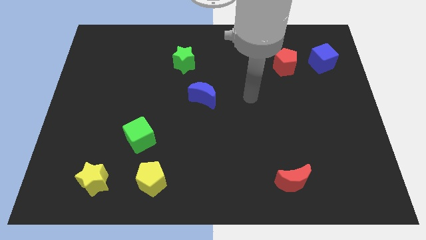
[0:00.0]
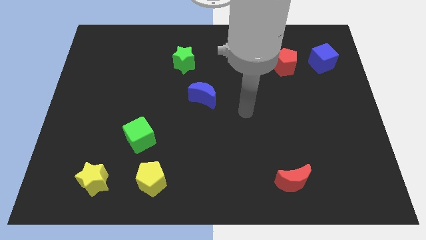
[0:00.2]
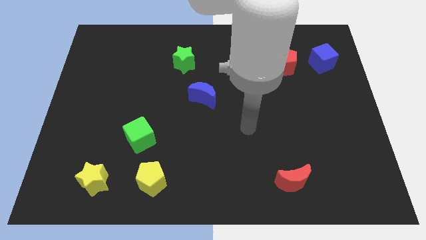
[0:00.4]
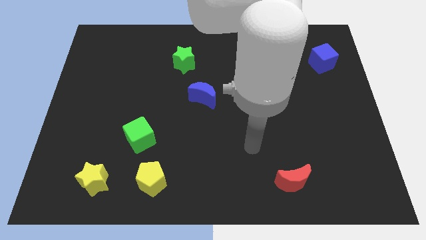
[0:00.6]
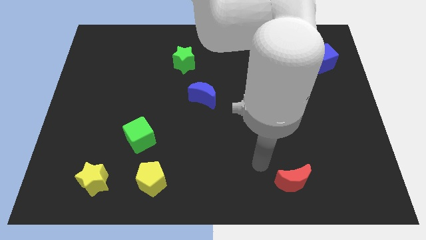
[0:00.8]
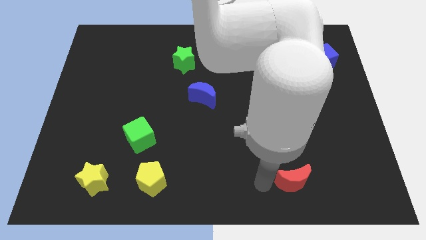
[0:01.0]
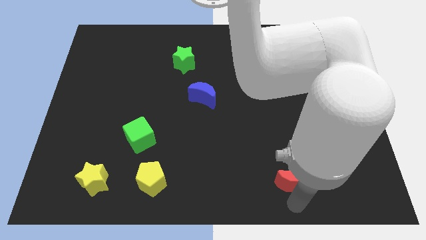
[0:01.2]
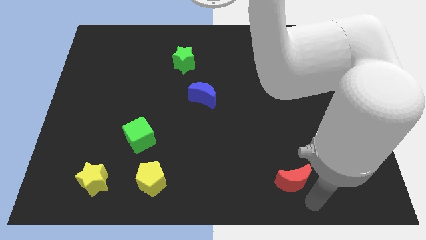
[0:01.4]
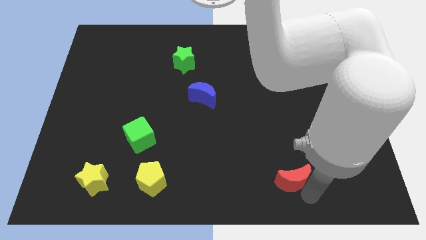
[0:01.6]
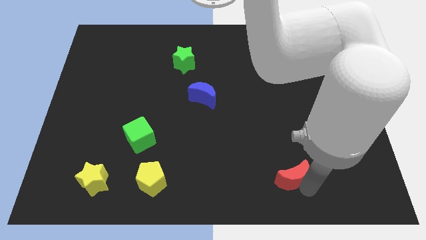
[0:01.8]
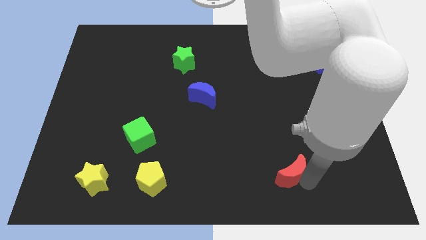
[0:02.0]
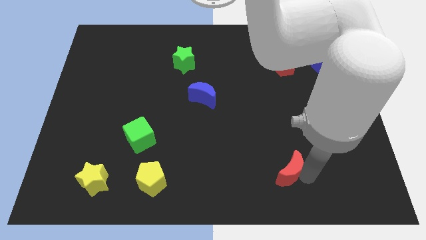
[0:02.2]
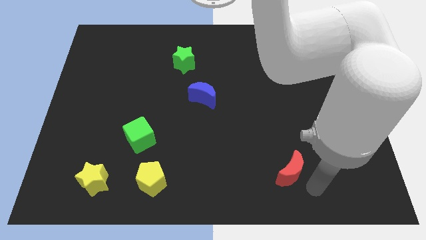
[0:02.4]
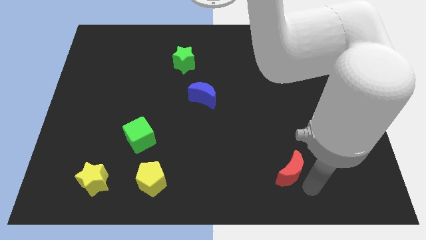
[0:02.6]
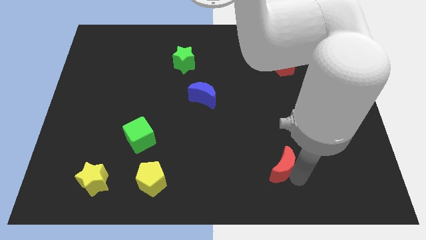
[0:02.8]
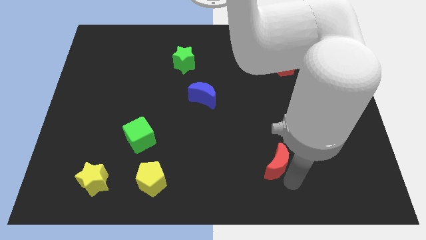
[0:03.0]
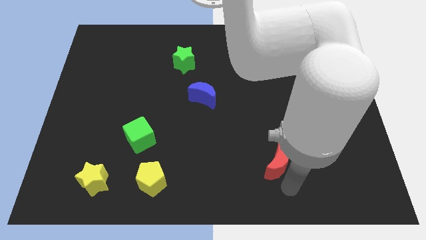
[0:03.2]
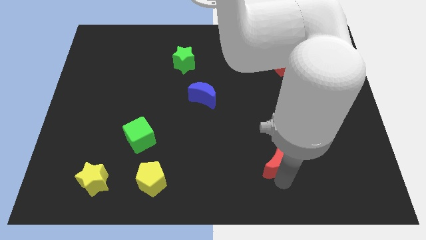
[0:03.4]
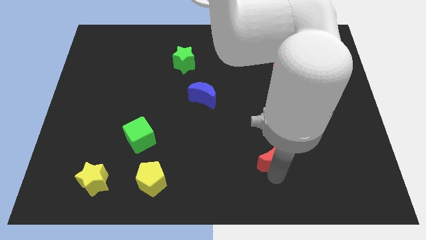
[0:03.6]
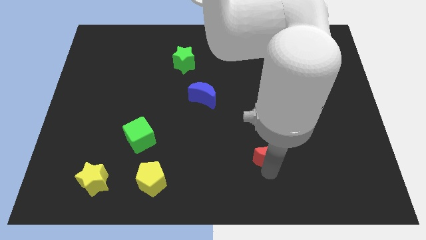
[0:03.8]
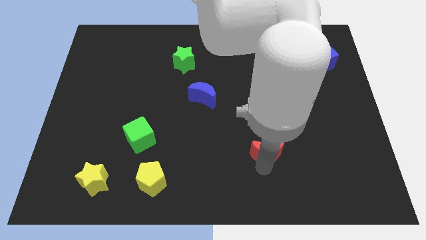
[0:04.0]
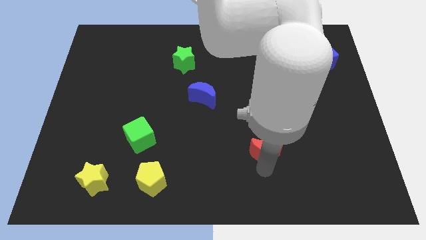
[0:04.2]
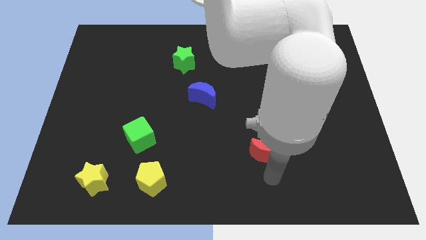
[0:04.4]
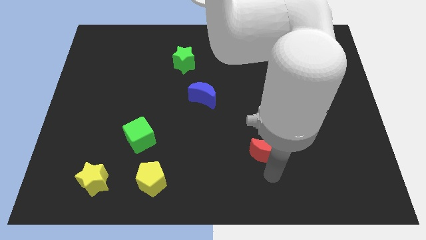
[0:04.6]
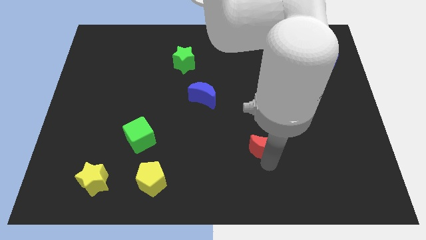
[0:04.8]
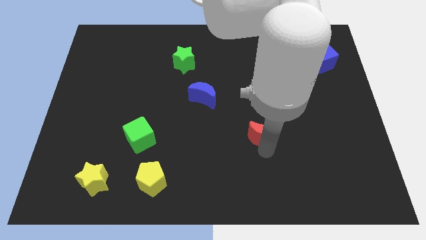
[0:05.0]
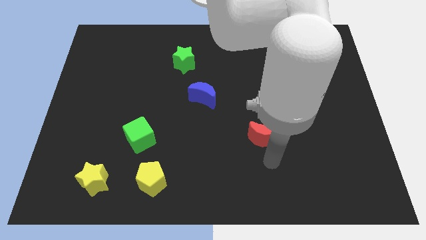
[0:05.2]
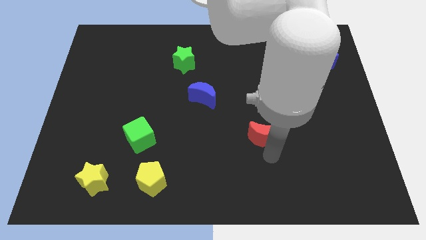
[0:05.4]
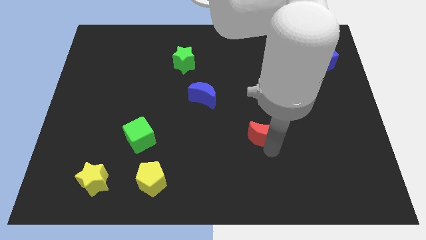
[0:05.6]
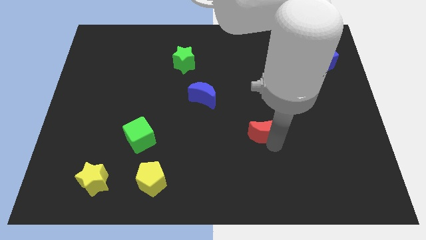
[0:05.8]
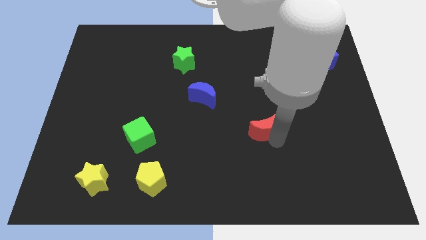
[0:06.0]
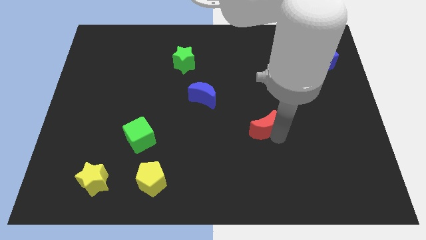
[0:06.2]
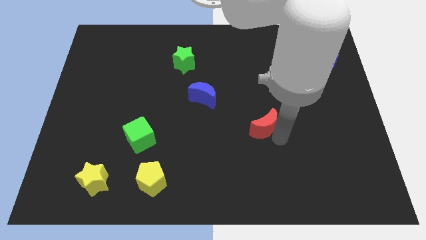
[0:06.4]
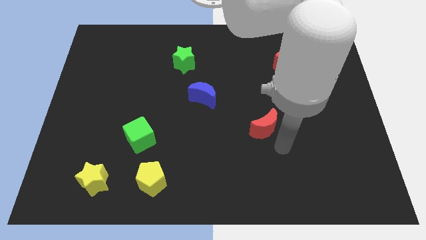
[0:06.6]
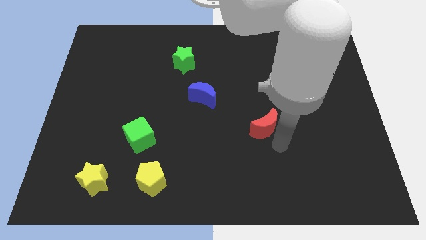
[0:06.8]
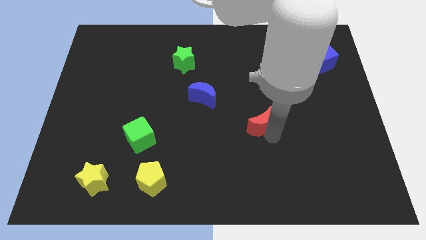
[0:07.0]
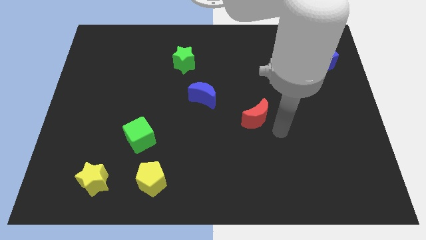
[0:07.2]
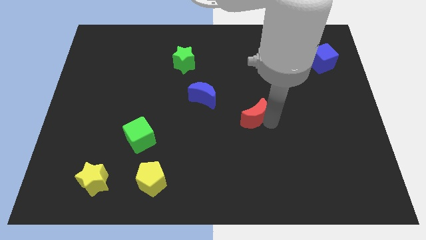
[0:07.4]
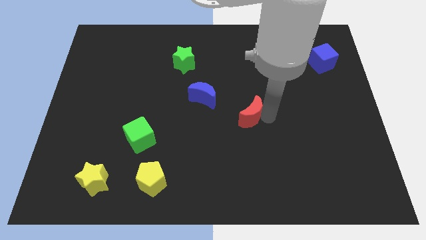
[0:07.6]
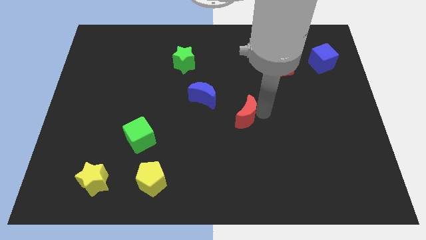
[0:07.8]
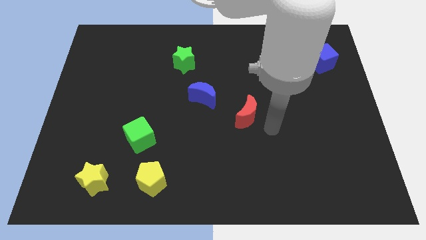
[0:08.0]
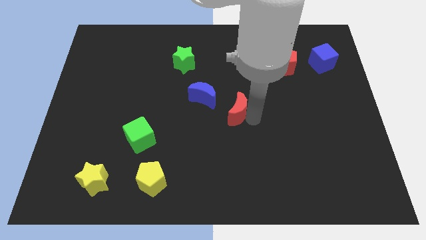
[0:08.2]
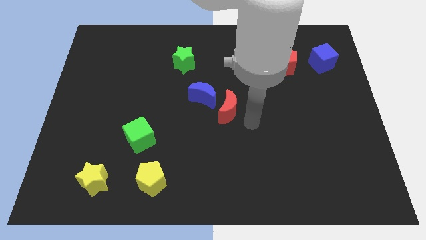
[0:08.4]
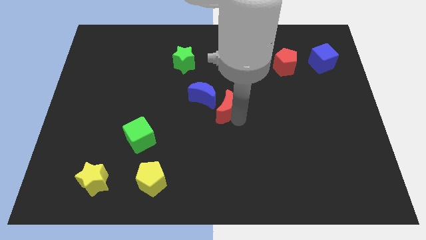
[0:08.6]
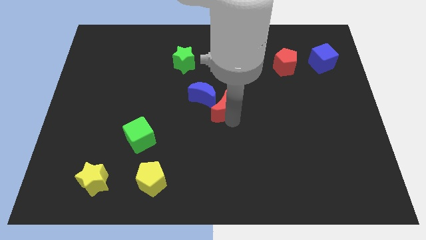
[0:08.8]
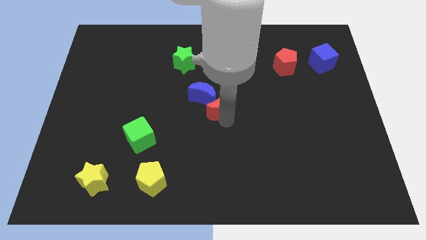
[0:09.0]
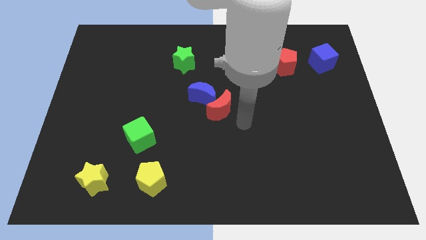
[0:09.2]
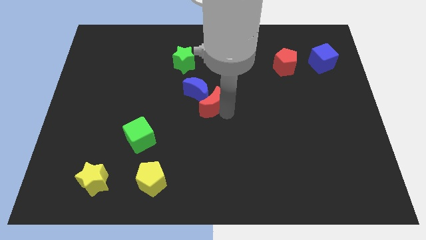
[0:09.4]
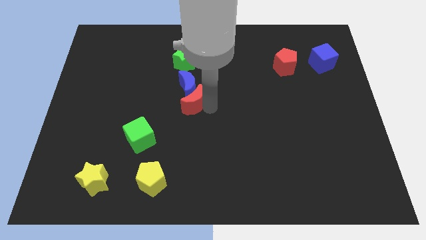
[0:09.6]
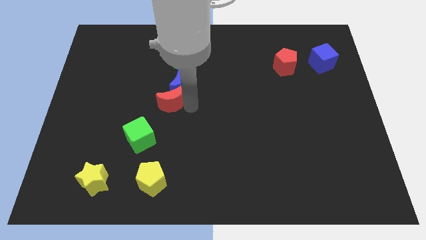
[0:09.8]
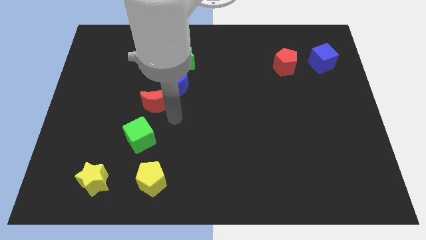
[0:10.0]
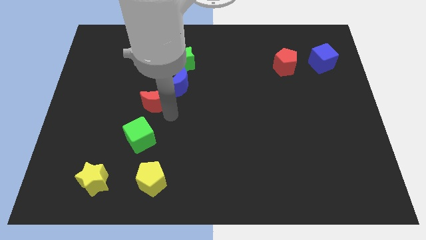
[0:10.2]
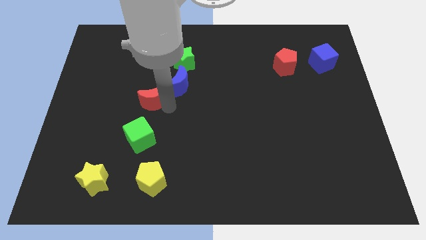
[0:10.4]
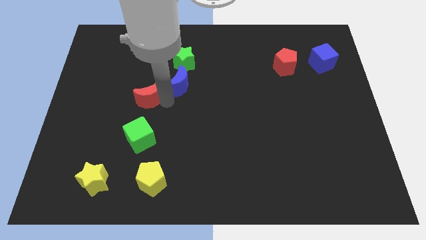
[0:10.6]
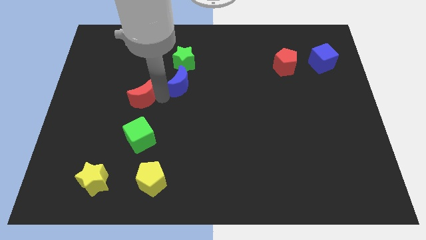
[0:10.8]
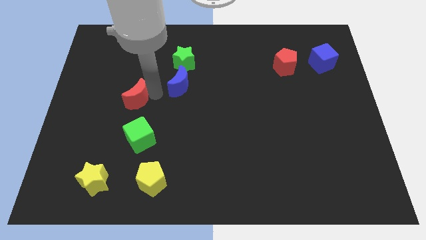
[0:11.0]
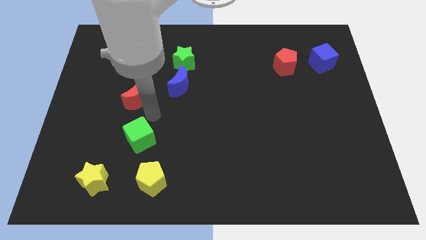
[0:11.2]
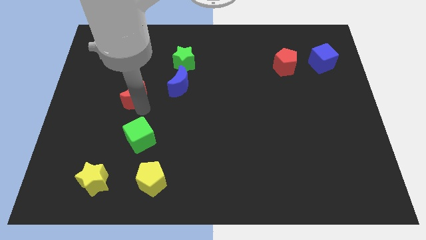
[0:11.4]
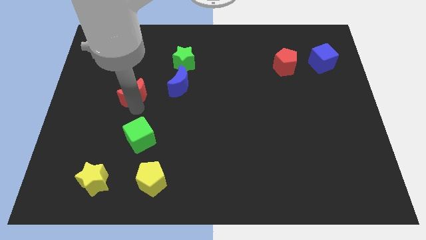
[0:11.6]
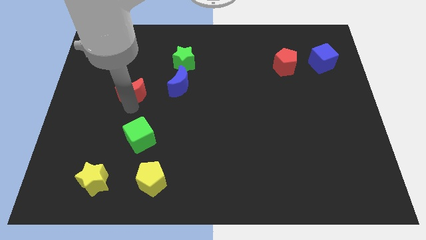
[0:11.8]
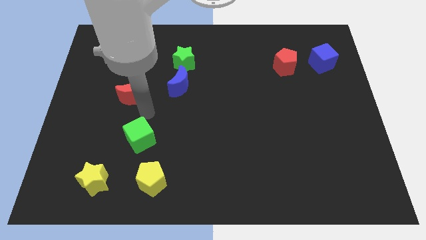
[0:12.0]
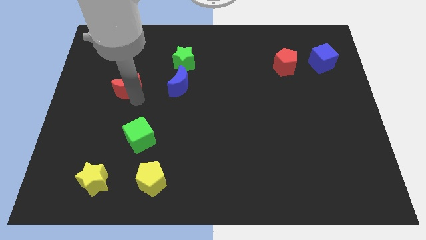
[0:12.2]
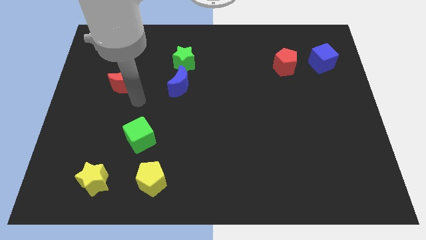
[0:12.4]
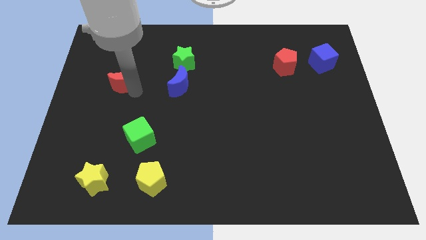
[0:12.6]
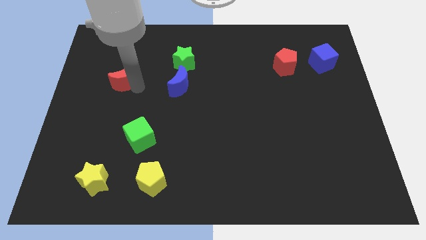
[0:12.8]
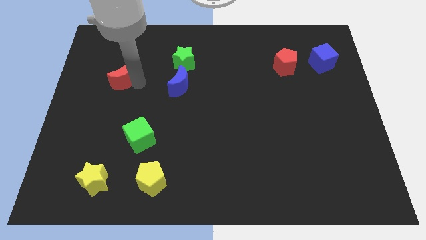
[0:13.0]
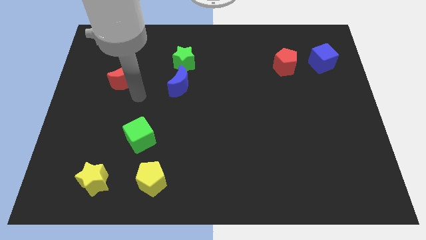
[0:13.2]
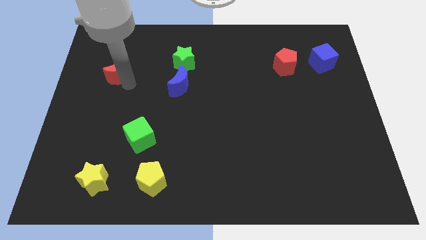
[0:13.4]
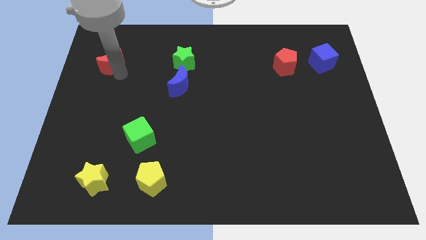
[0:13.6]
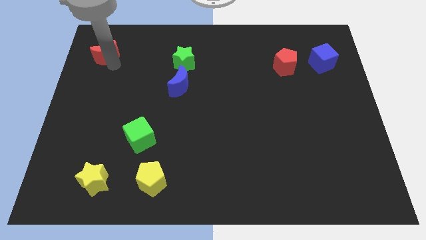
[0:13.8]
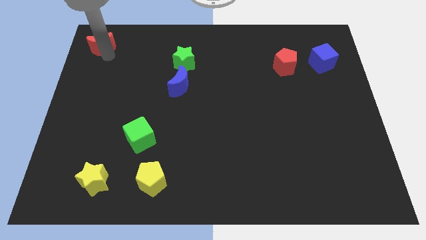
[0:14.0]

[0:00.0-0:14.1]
slide the red moon to the top left
